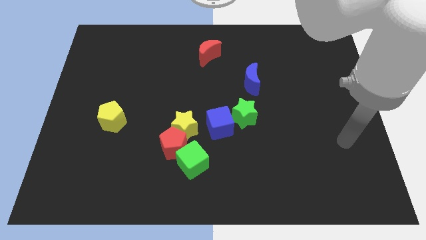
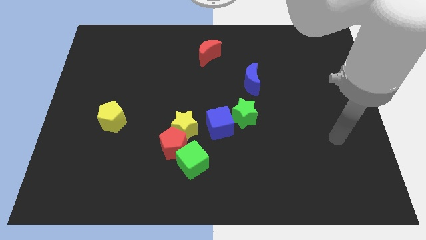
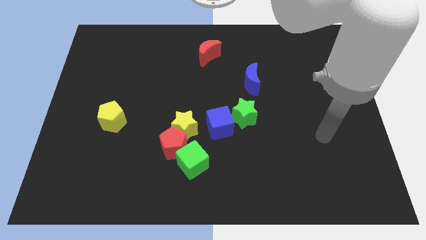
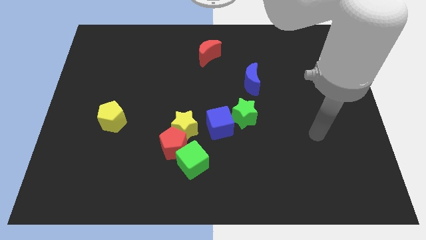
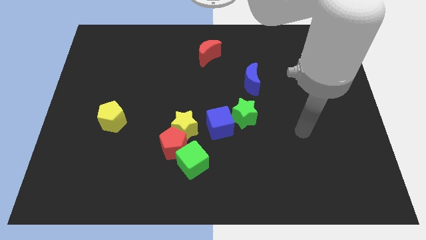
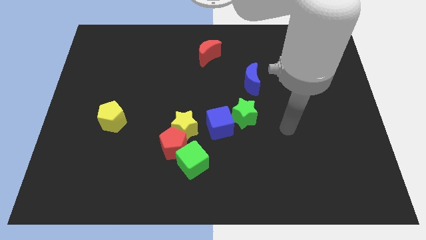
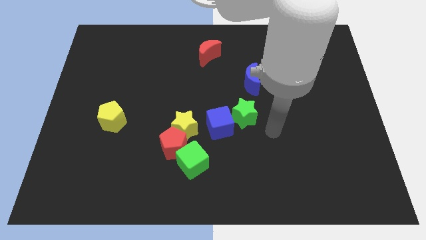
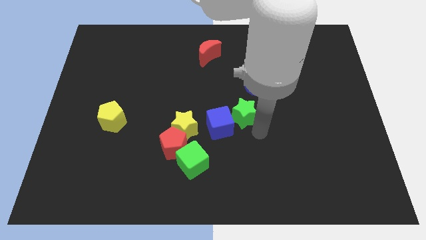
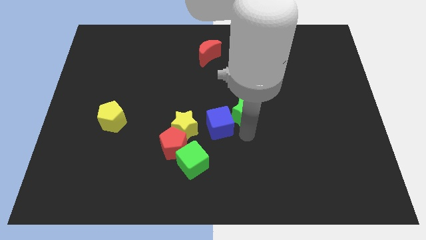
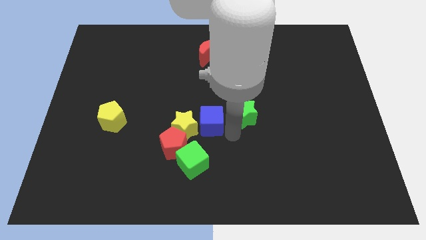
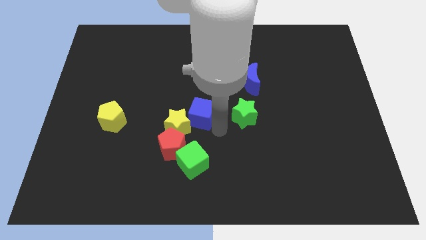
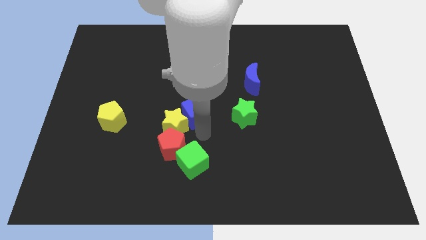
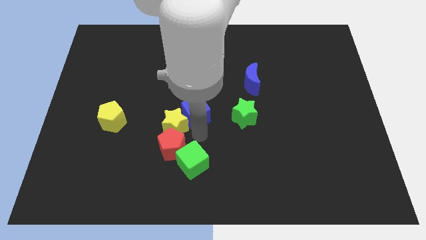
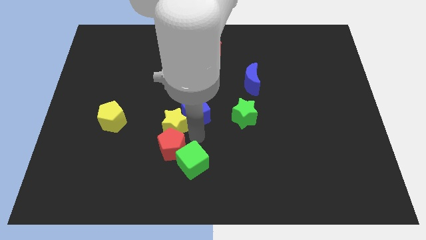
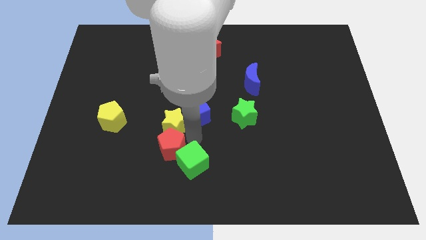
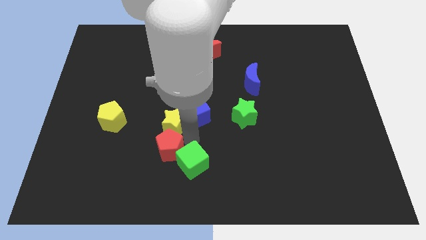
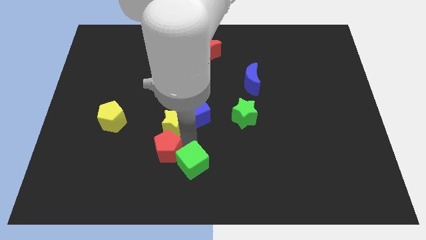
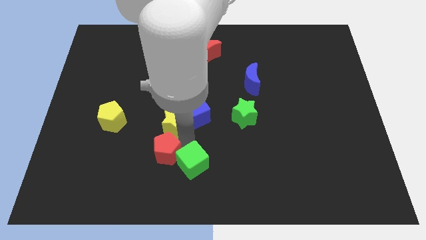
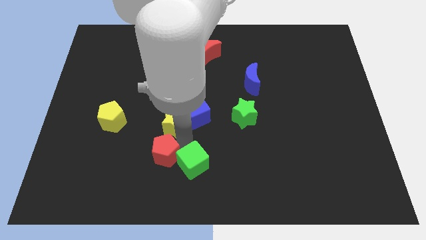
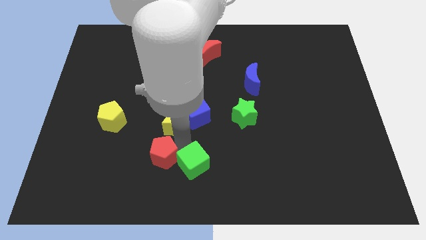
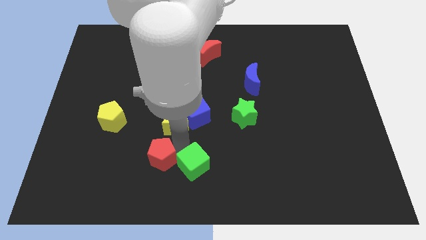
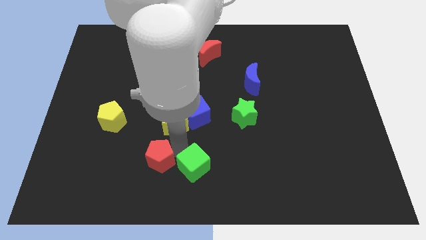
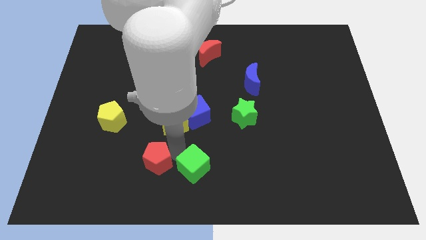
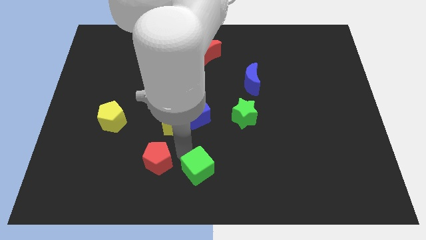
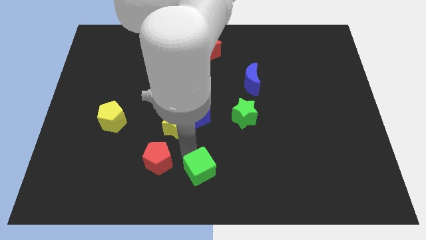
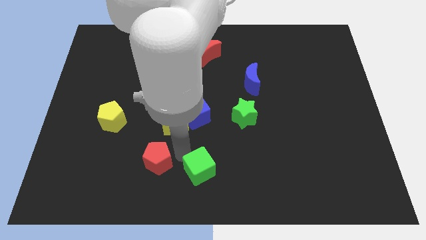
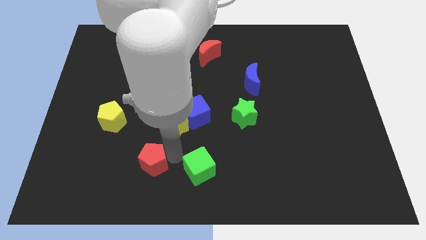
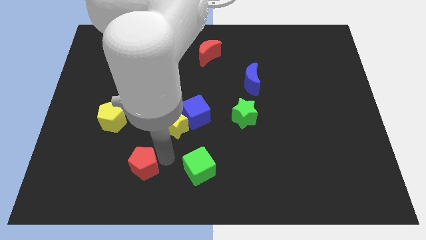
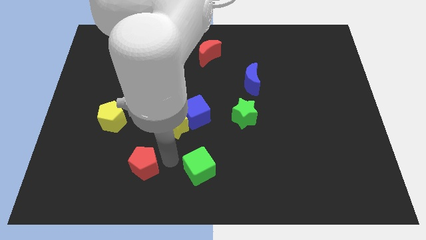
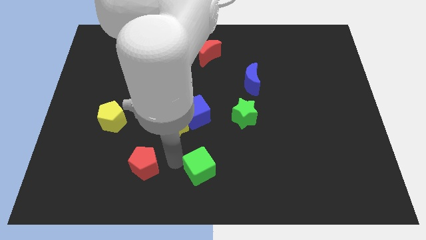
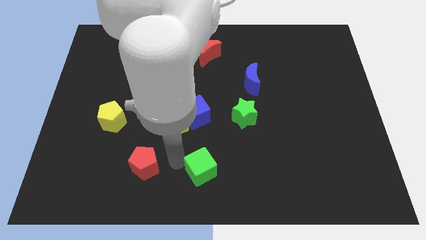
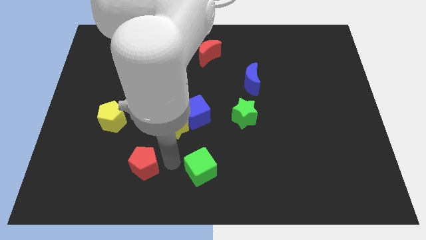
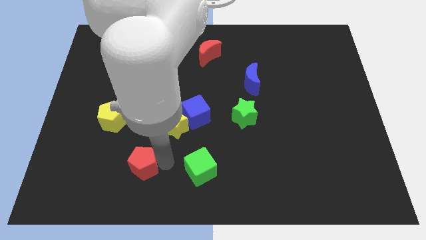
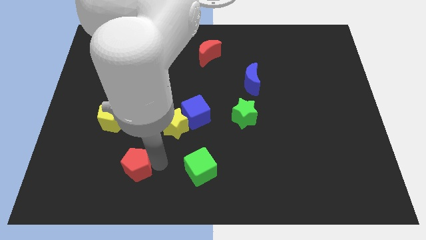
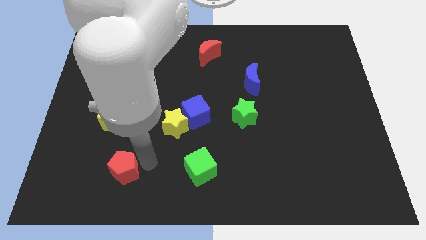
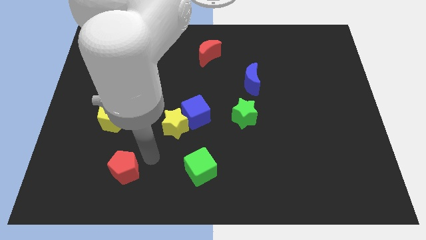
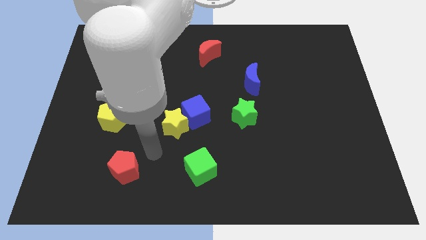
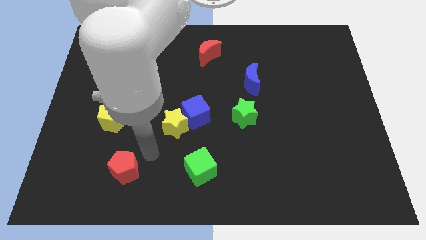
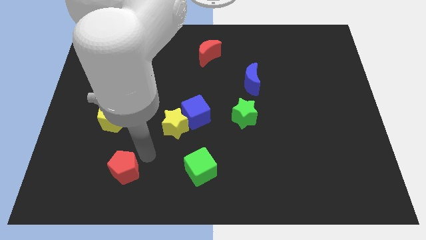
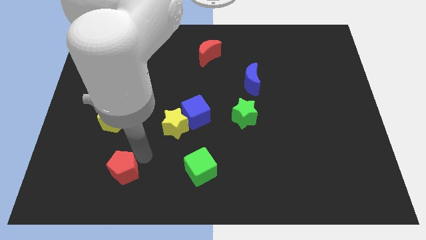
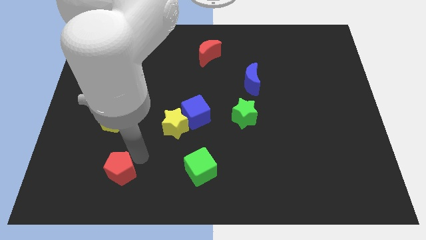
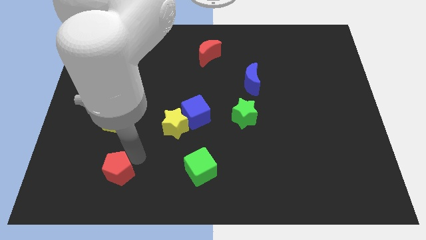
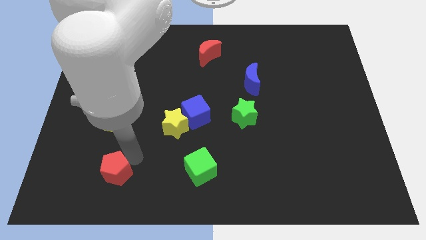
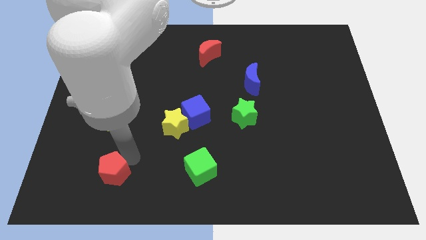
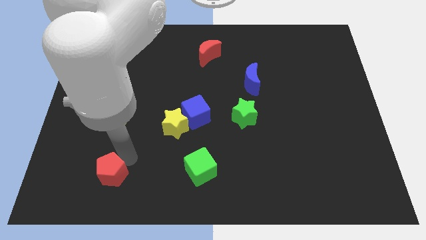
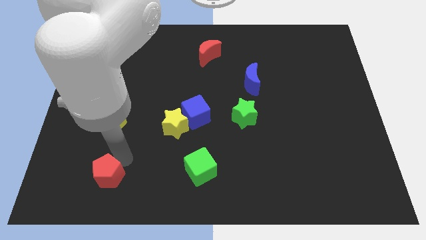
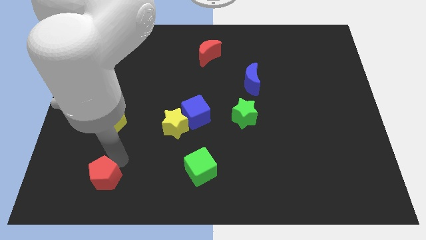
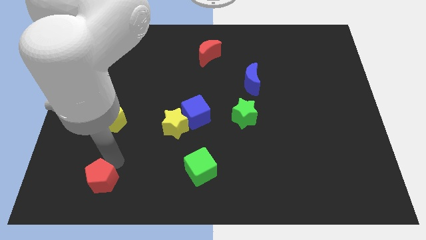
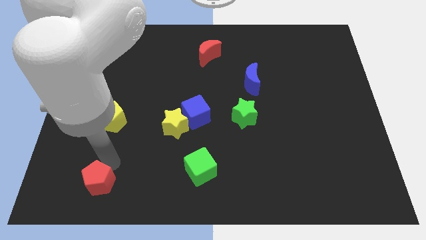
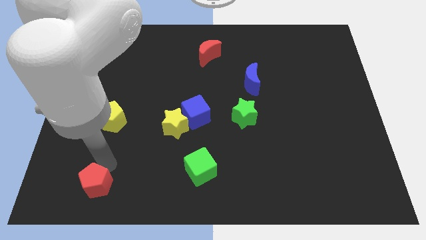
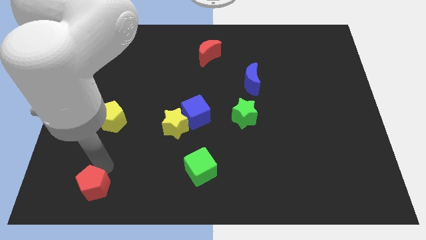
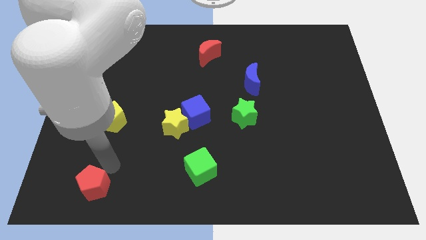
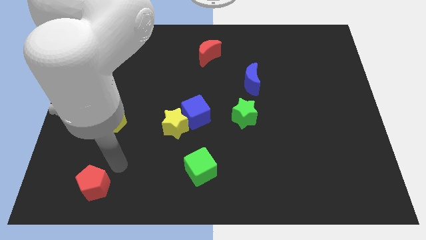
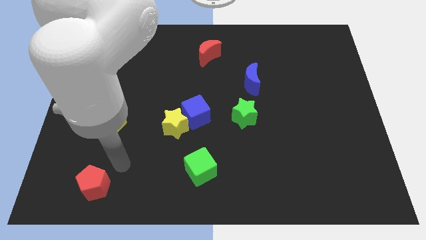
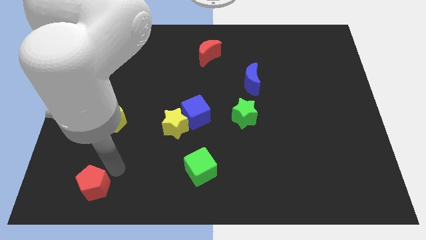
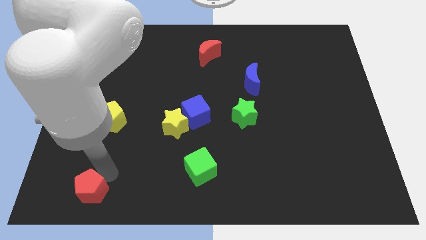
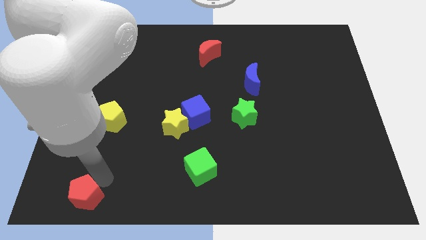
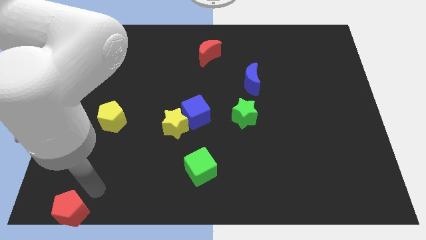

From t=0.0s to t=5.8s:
slide the red pentagon to the bottom left of the board

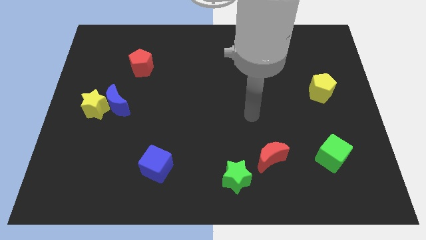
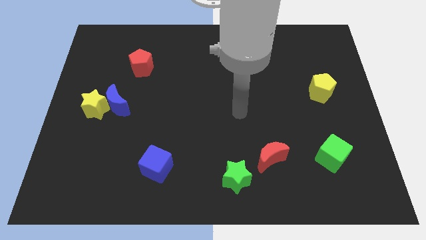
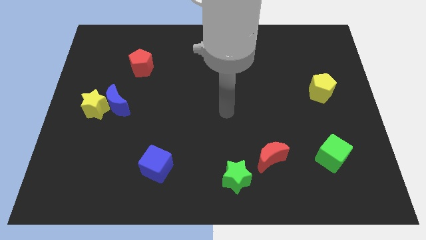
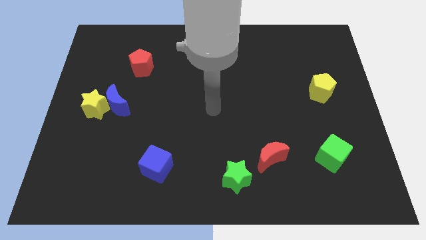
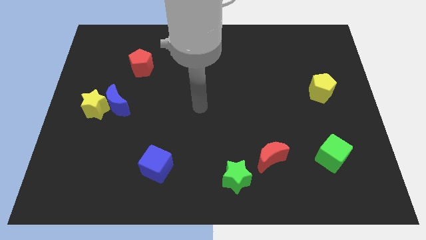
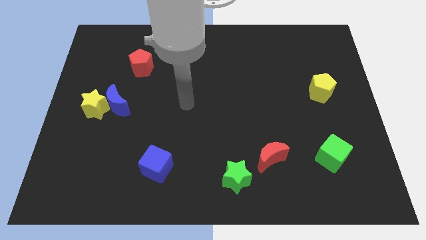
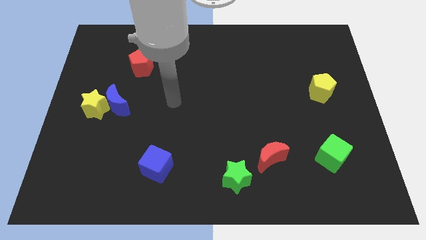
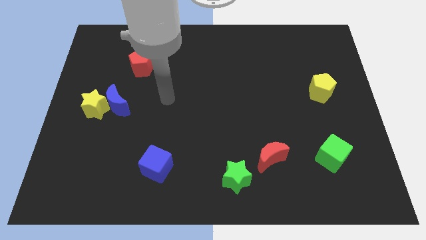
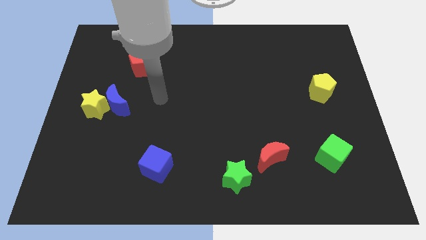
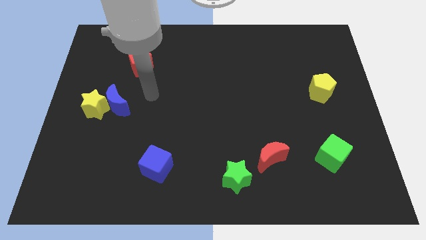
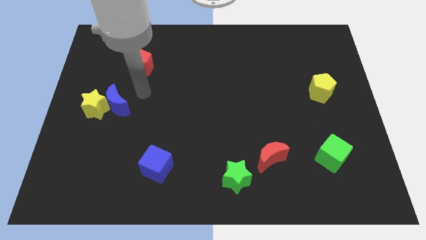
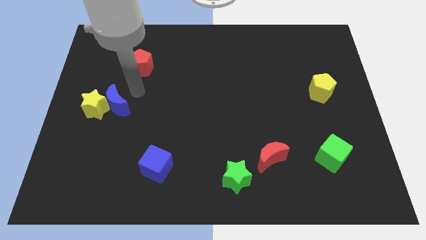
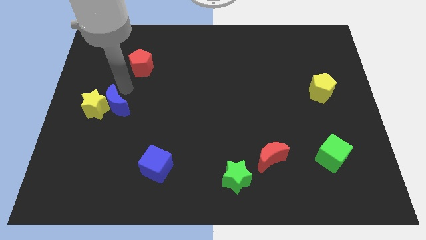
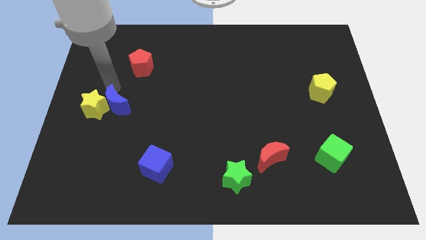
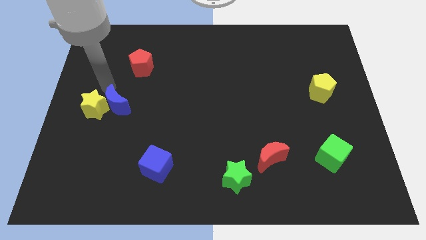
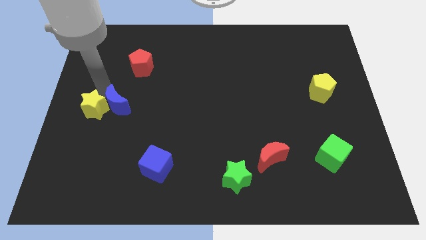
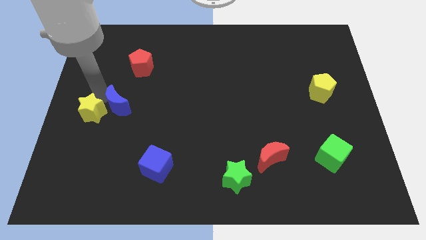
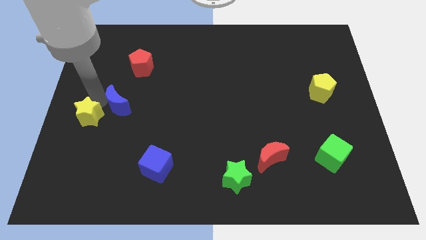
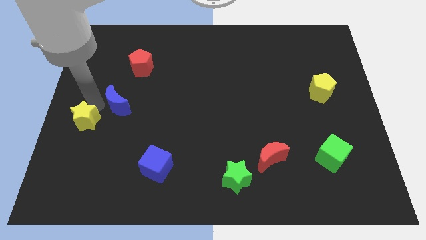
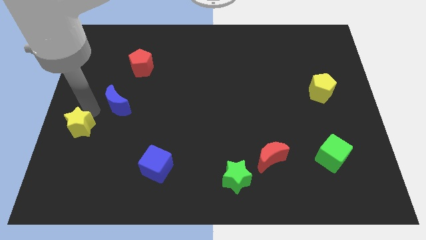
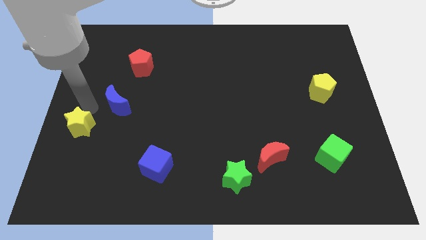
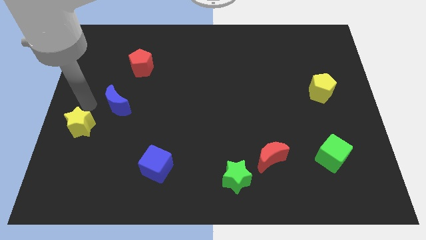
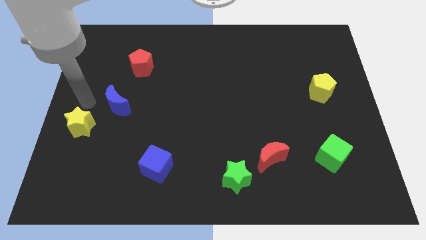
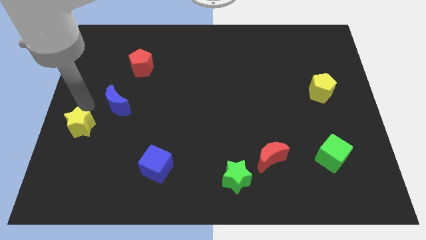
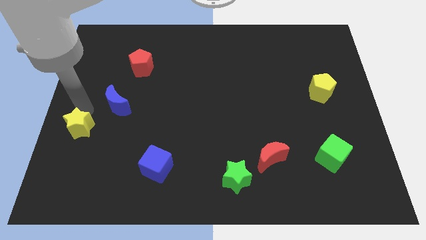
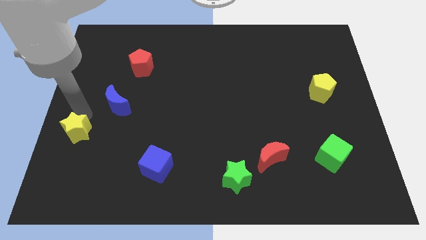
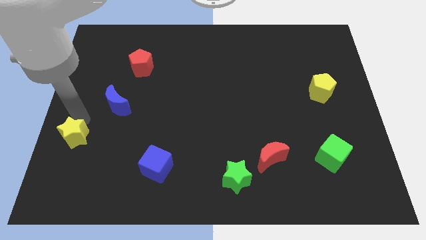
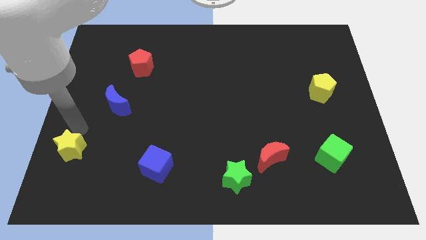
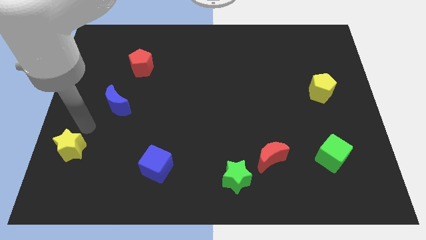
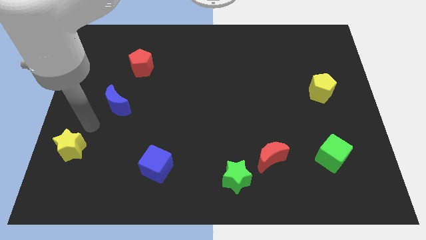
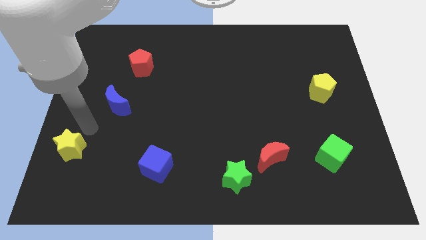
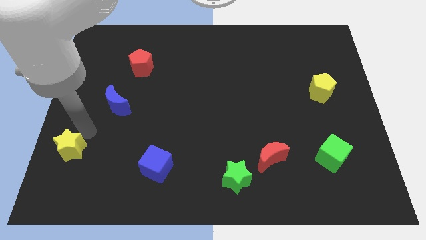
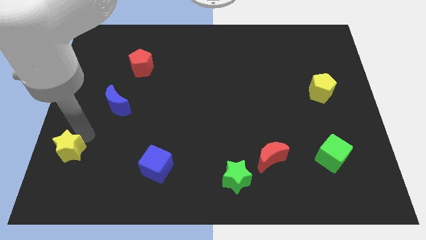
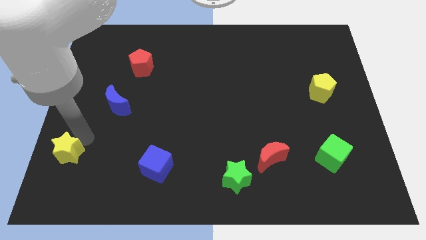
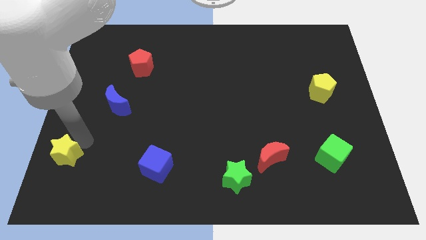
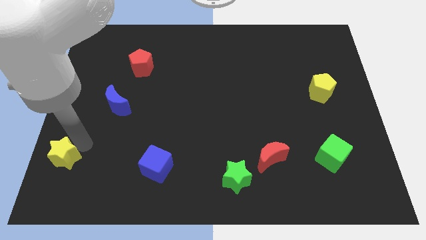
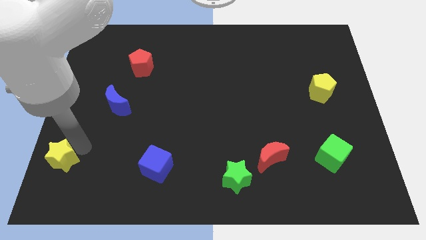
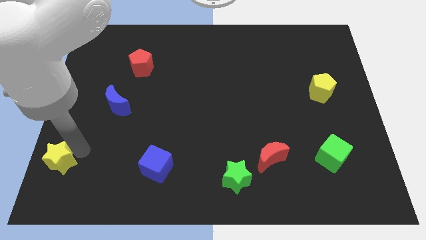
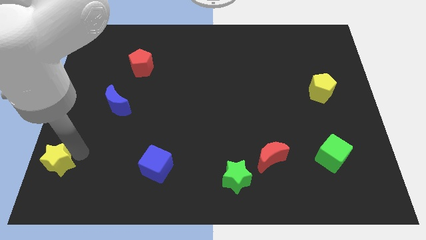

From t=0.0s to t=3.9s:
put the yellow star to the lower left corner
